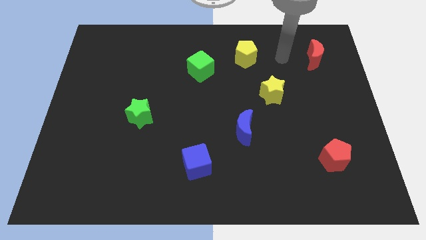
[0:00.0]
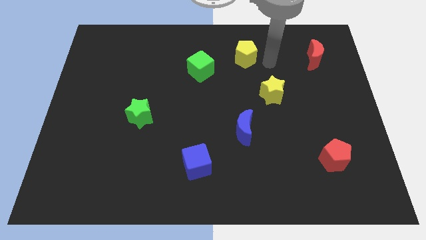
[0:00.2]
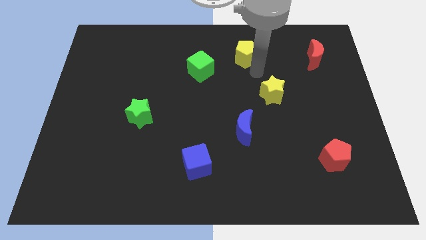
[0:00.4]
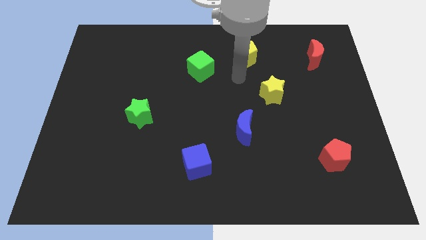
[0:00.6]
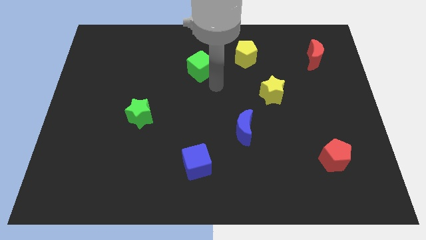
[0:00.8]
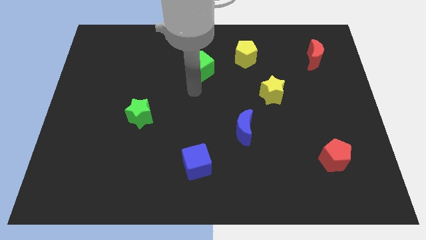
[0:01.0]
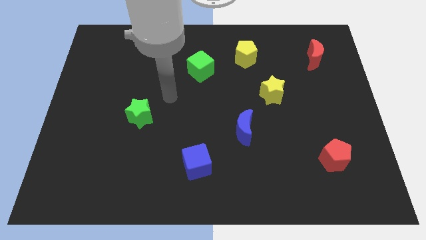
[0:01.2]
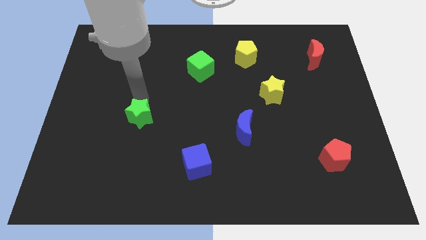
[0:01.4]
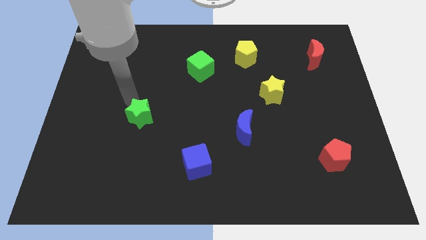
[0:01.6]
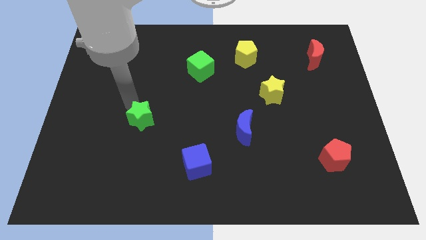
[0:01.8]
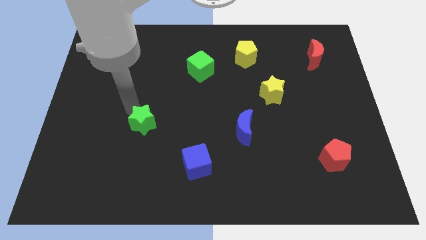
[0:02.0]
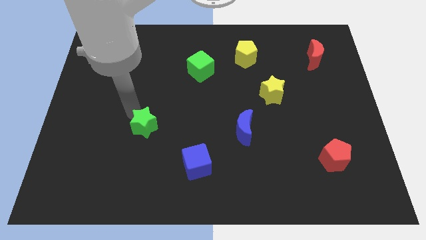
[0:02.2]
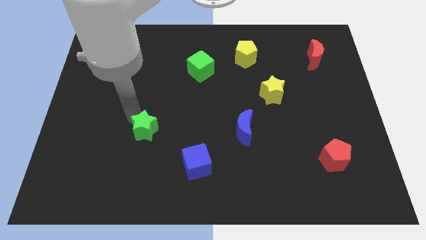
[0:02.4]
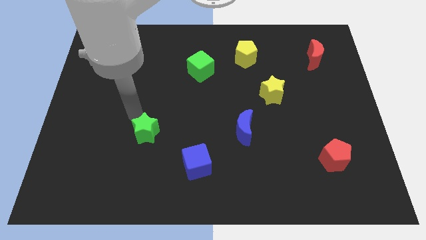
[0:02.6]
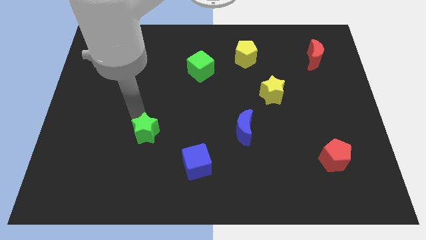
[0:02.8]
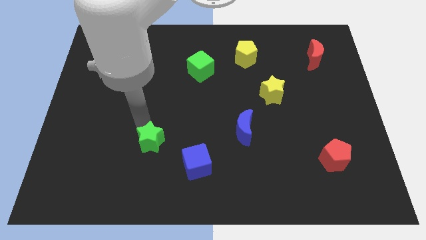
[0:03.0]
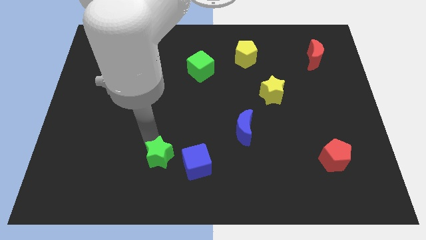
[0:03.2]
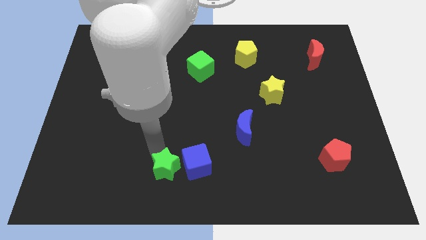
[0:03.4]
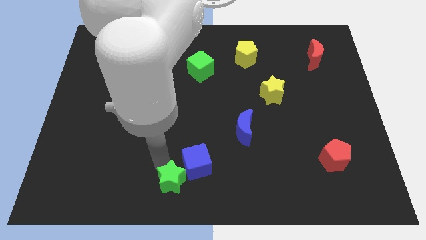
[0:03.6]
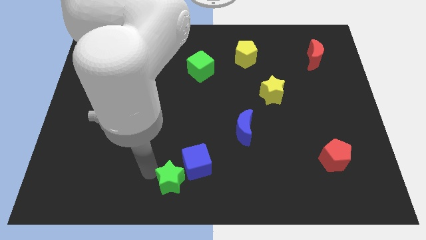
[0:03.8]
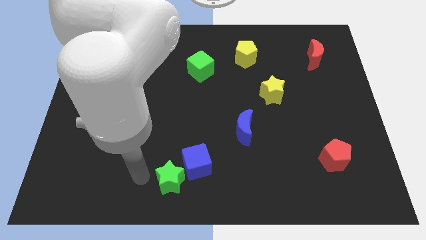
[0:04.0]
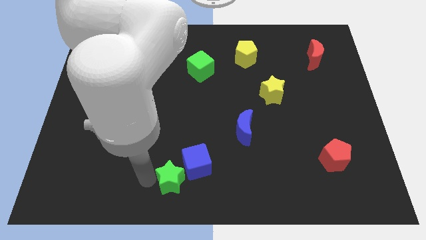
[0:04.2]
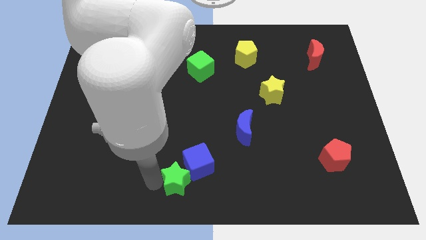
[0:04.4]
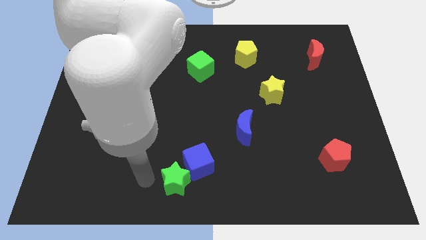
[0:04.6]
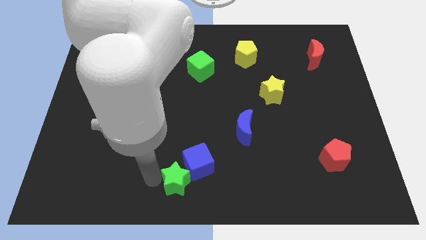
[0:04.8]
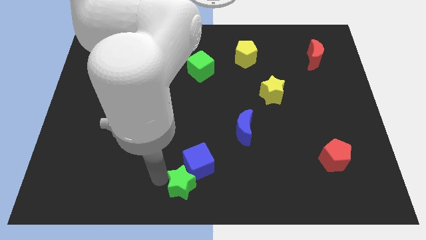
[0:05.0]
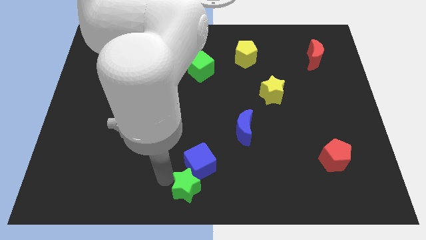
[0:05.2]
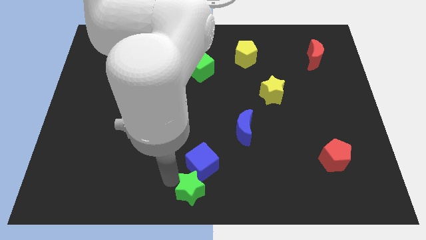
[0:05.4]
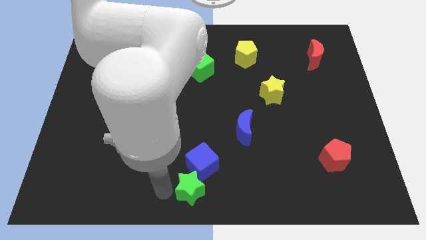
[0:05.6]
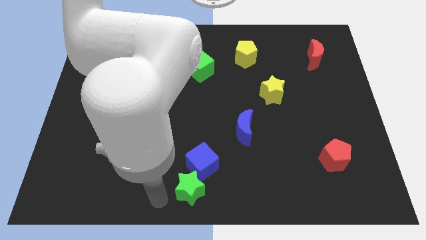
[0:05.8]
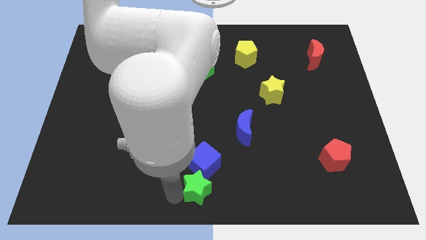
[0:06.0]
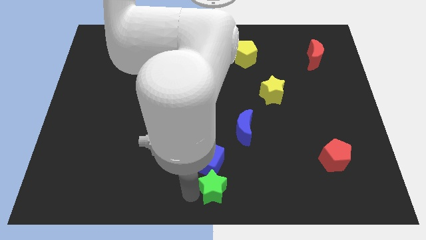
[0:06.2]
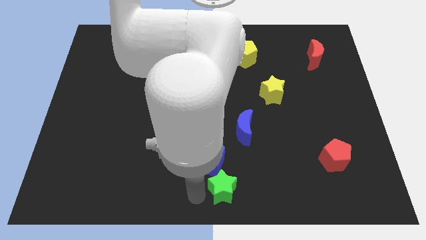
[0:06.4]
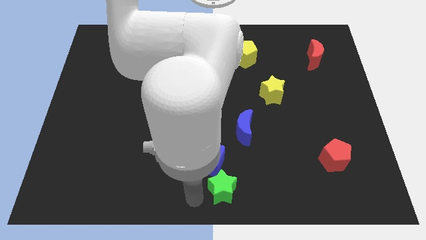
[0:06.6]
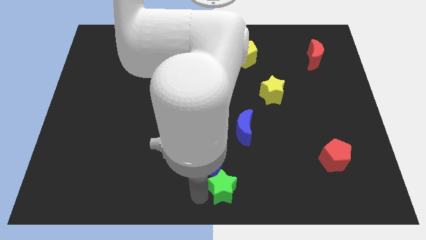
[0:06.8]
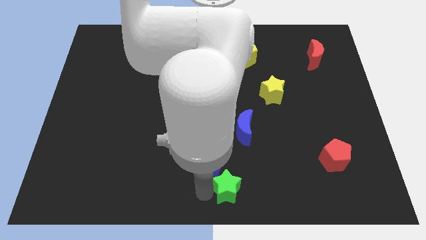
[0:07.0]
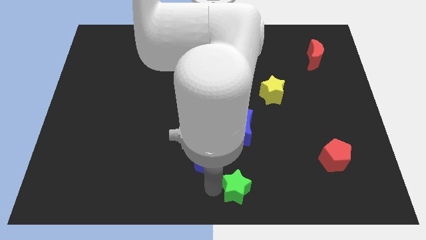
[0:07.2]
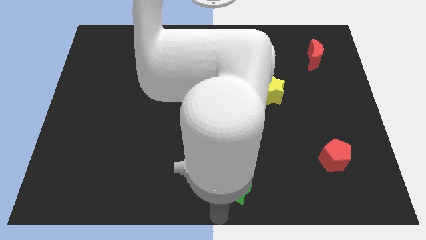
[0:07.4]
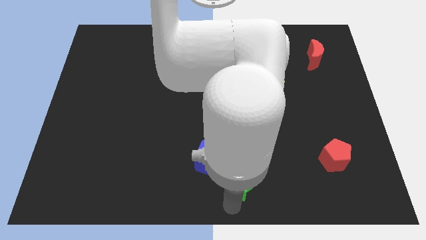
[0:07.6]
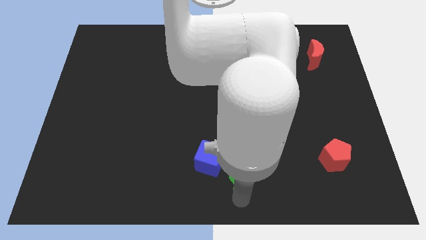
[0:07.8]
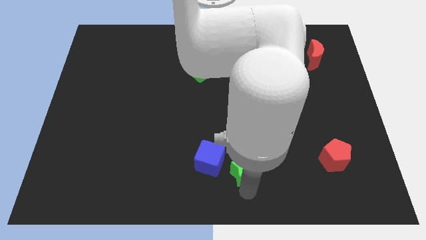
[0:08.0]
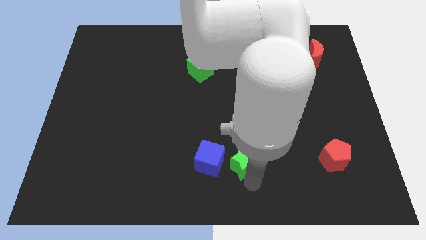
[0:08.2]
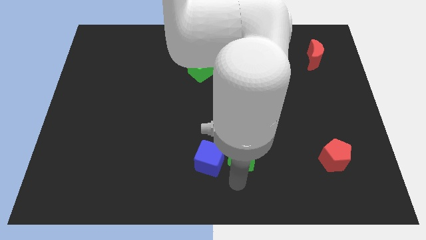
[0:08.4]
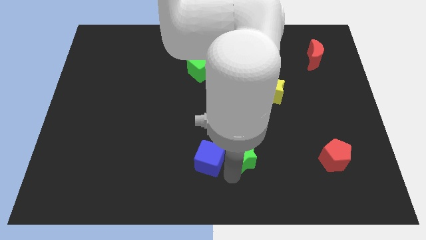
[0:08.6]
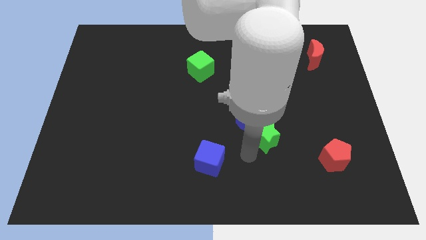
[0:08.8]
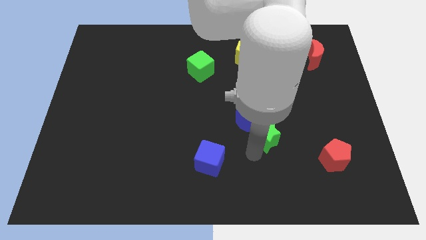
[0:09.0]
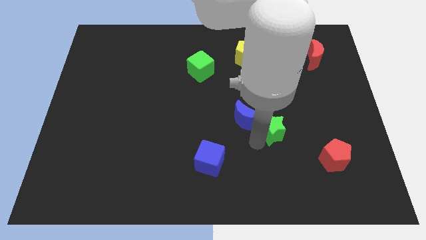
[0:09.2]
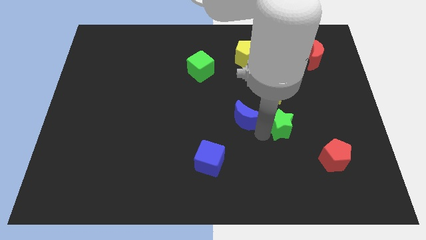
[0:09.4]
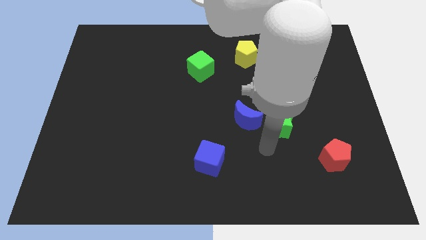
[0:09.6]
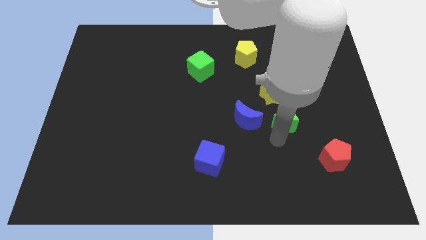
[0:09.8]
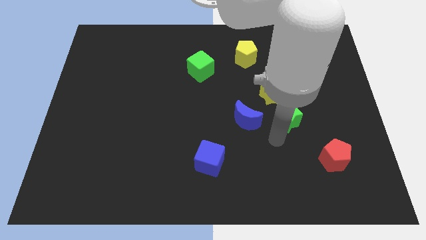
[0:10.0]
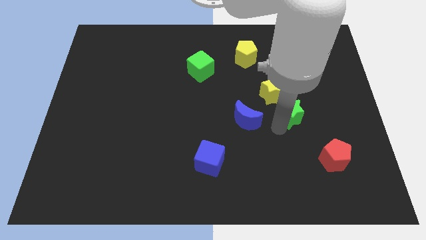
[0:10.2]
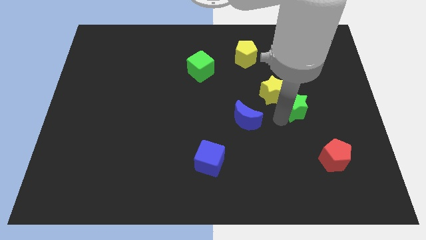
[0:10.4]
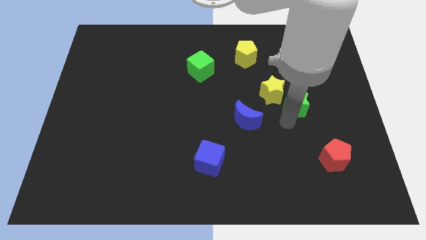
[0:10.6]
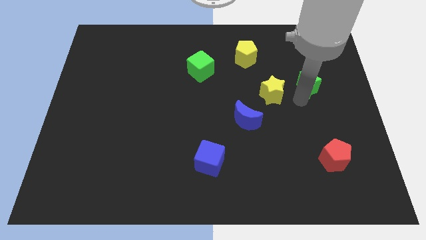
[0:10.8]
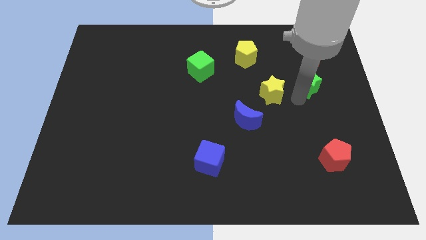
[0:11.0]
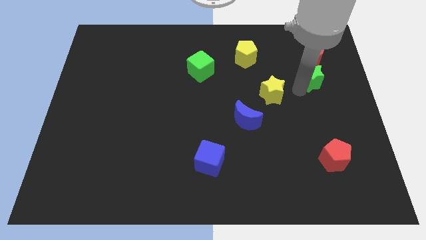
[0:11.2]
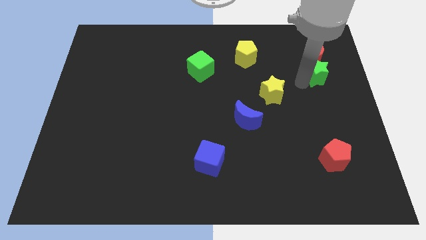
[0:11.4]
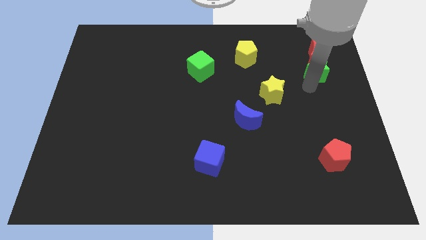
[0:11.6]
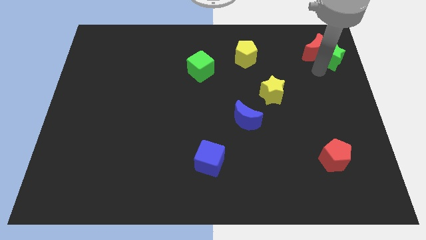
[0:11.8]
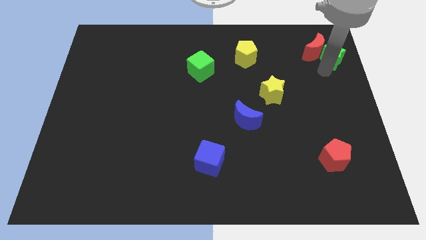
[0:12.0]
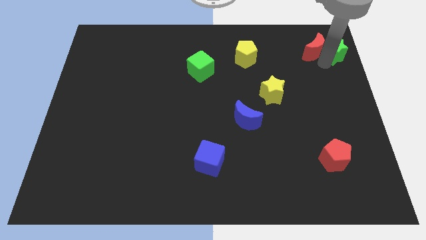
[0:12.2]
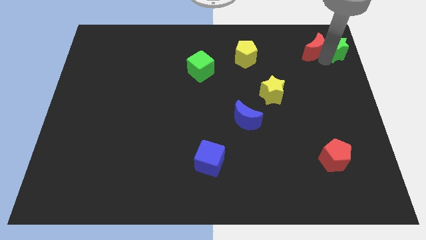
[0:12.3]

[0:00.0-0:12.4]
slide the green star to the top right of the board
